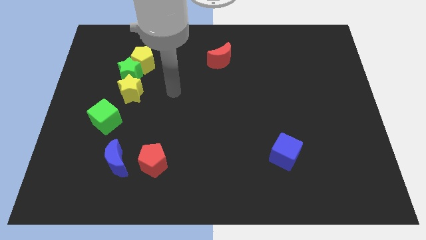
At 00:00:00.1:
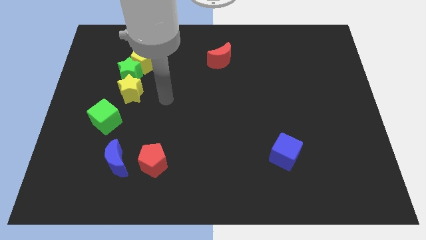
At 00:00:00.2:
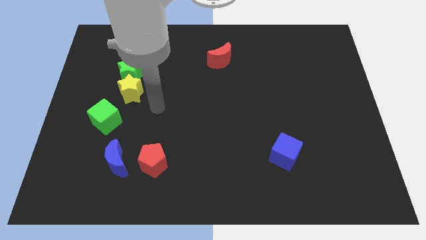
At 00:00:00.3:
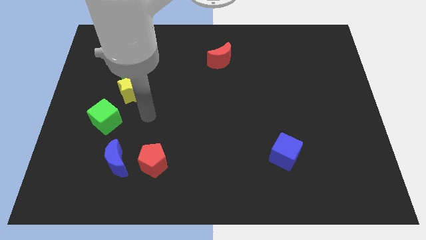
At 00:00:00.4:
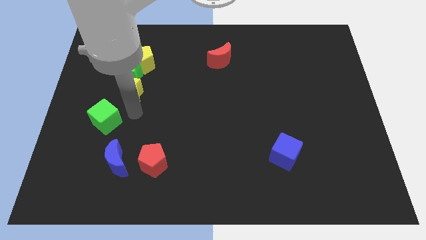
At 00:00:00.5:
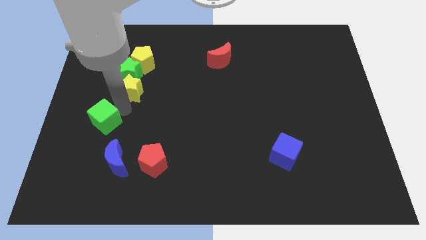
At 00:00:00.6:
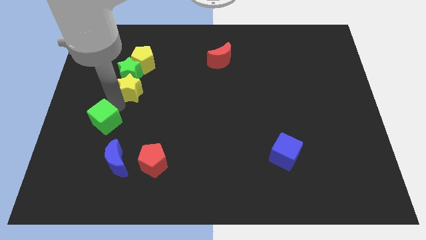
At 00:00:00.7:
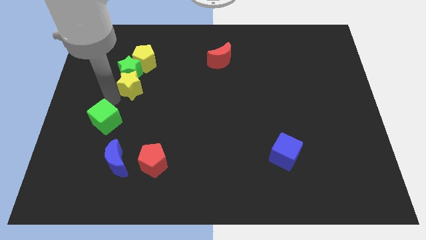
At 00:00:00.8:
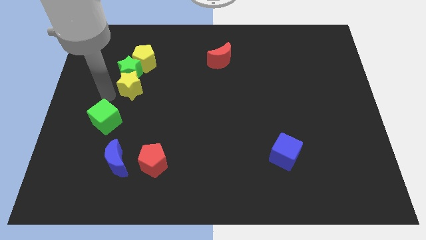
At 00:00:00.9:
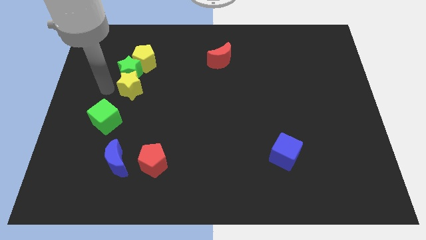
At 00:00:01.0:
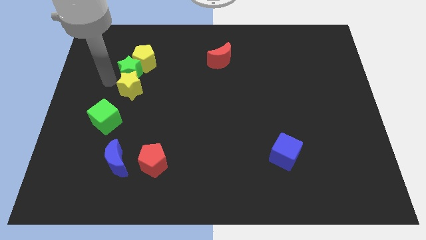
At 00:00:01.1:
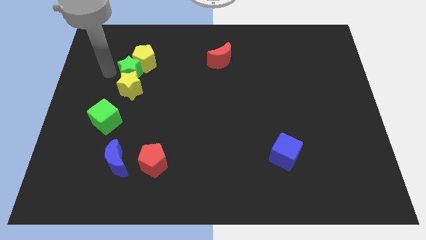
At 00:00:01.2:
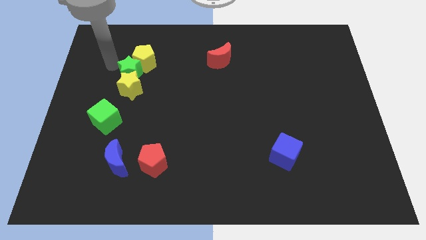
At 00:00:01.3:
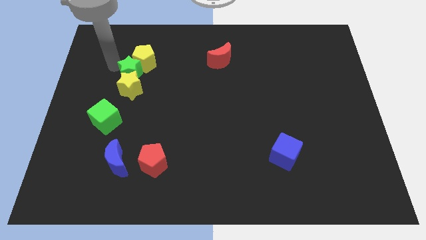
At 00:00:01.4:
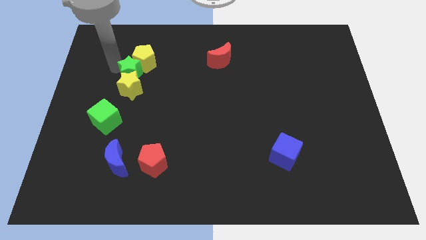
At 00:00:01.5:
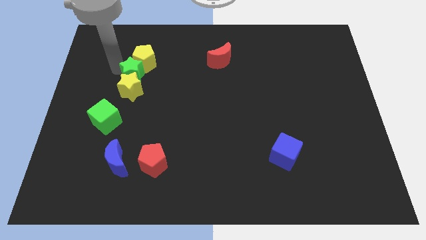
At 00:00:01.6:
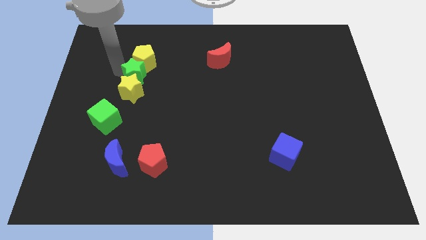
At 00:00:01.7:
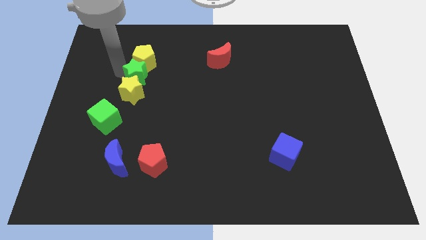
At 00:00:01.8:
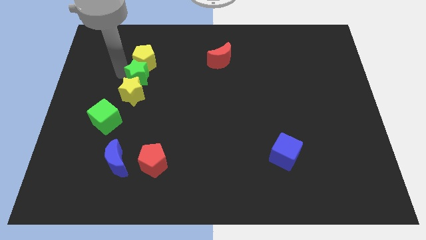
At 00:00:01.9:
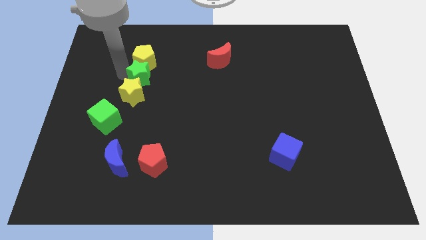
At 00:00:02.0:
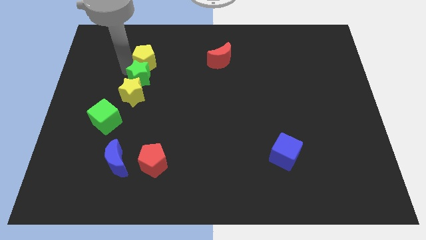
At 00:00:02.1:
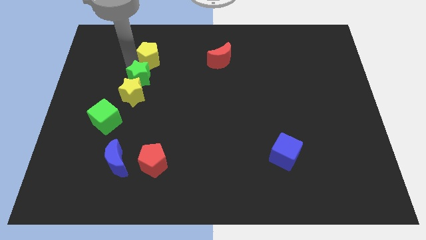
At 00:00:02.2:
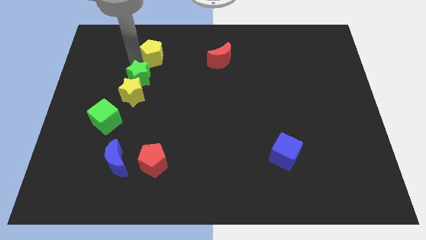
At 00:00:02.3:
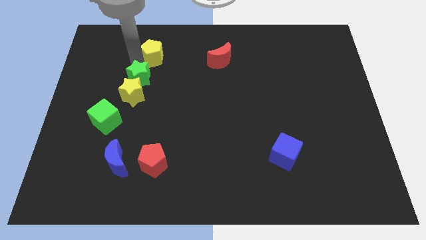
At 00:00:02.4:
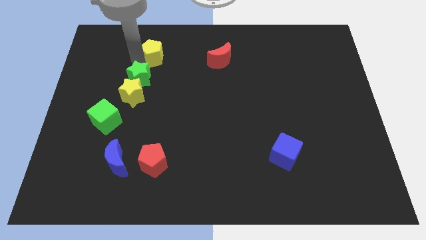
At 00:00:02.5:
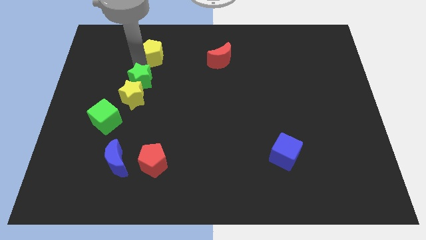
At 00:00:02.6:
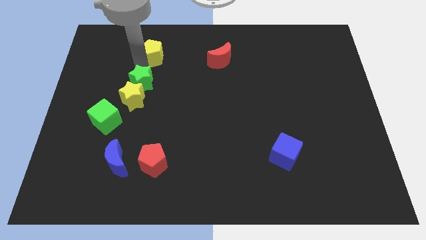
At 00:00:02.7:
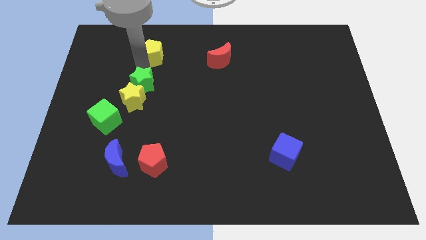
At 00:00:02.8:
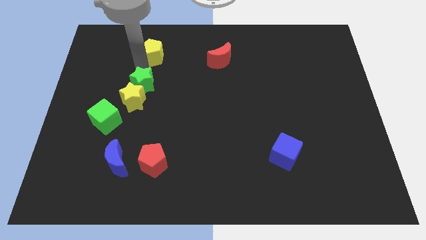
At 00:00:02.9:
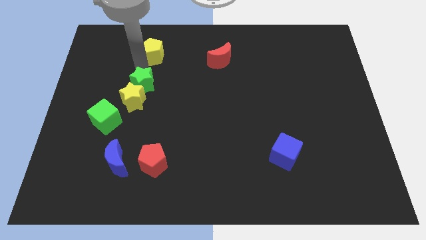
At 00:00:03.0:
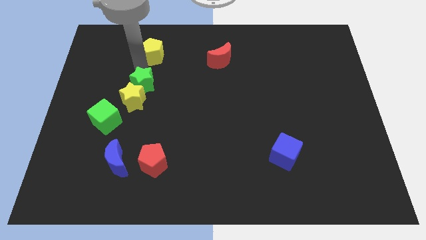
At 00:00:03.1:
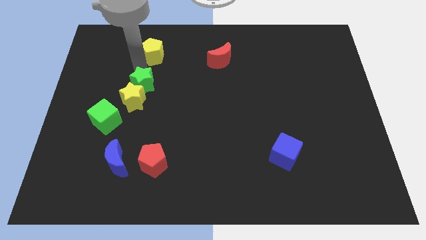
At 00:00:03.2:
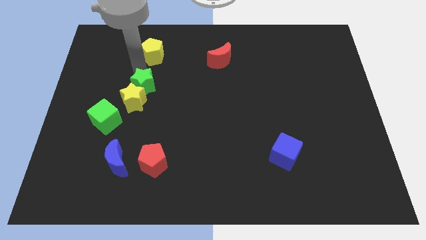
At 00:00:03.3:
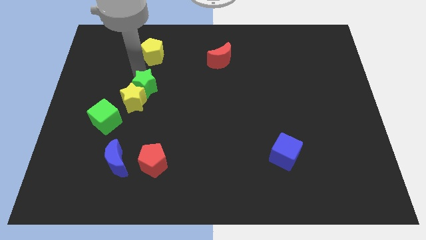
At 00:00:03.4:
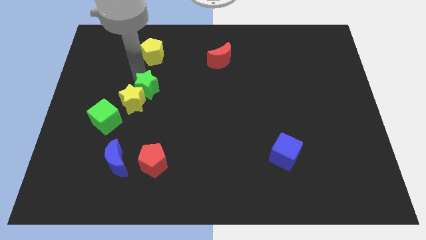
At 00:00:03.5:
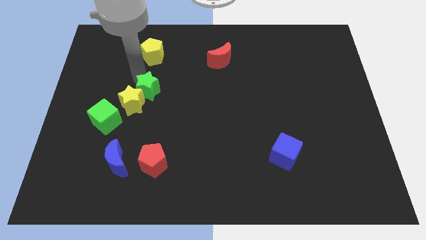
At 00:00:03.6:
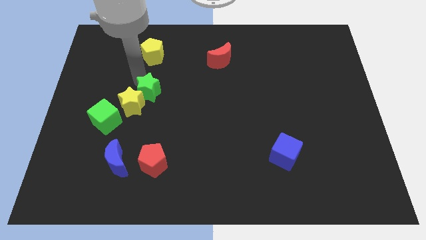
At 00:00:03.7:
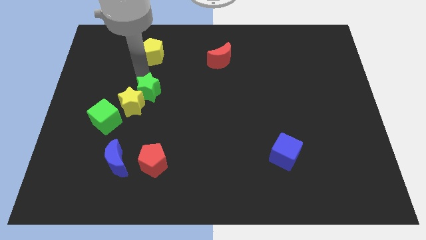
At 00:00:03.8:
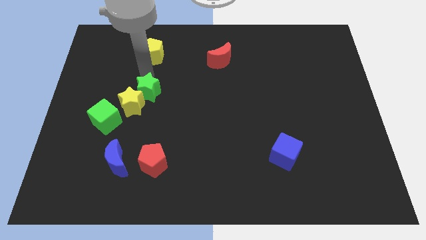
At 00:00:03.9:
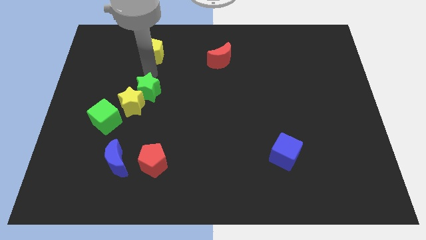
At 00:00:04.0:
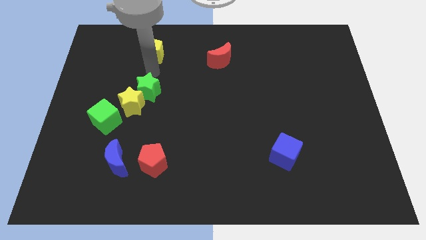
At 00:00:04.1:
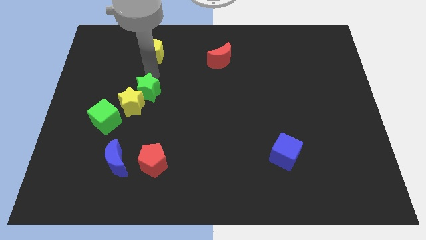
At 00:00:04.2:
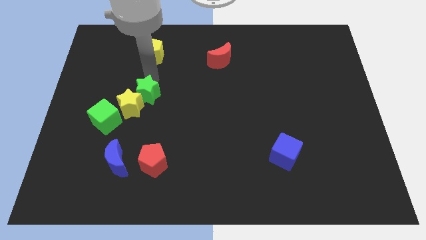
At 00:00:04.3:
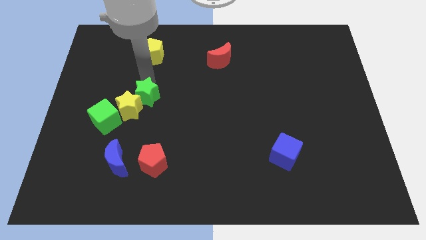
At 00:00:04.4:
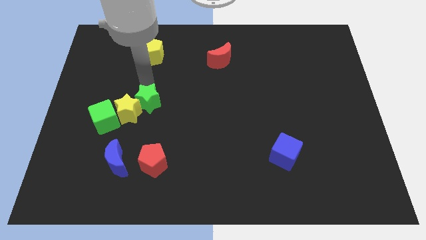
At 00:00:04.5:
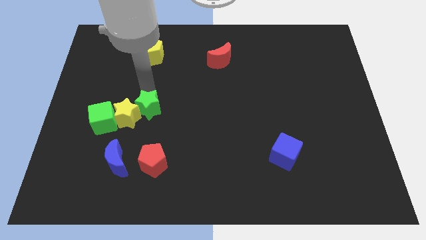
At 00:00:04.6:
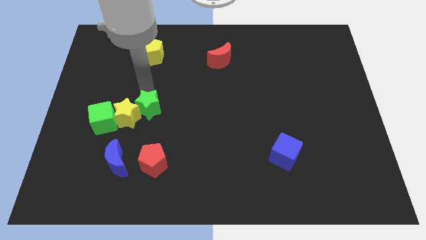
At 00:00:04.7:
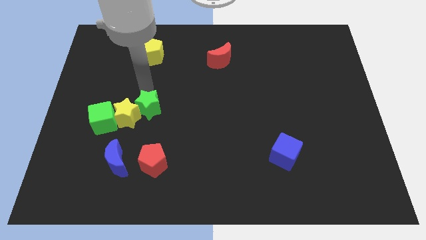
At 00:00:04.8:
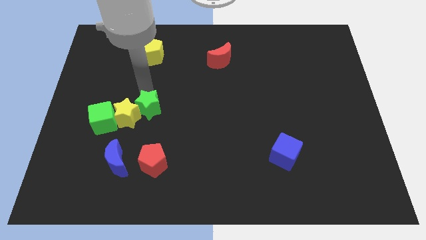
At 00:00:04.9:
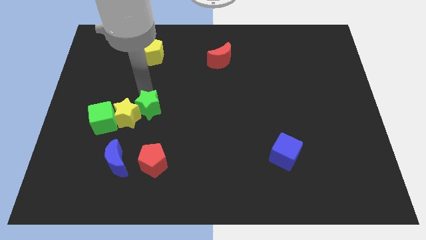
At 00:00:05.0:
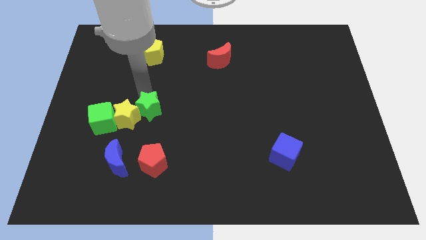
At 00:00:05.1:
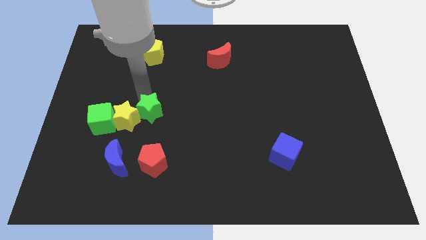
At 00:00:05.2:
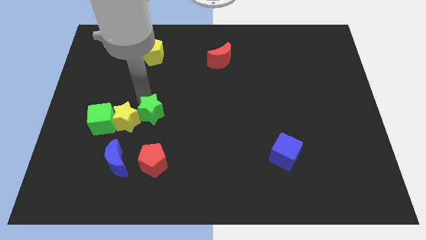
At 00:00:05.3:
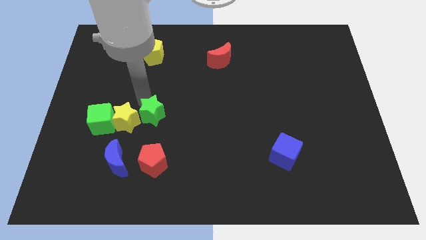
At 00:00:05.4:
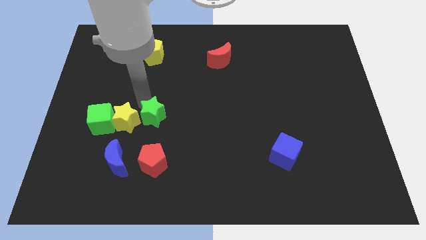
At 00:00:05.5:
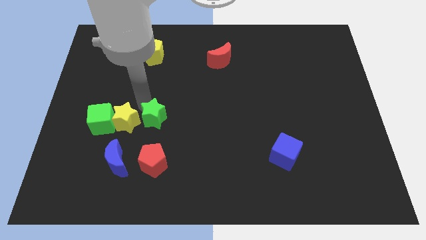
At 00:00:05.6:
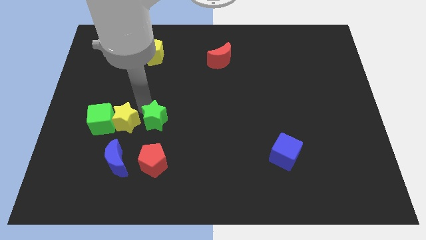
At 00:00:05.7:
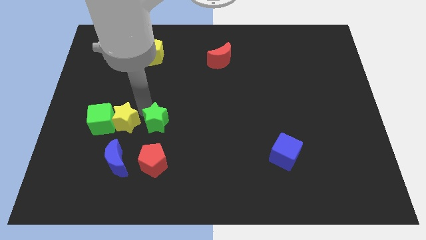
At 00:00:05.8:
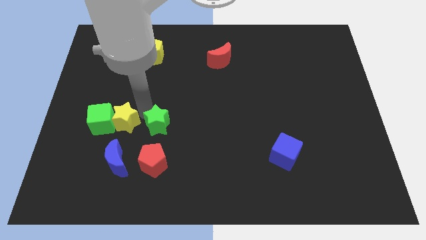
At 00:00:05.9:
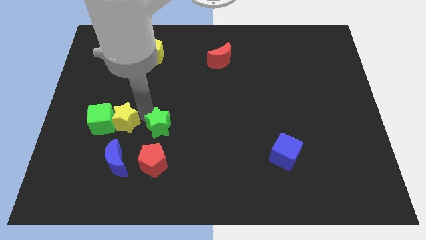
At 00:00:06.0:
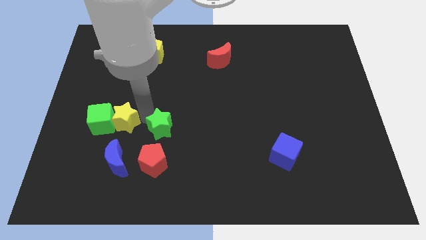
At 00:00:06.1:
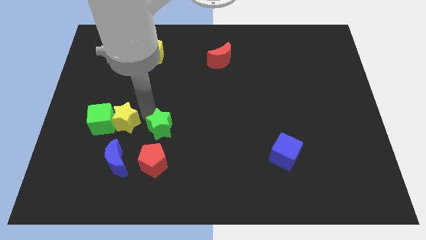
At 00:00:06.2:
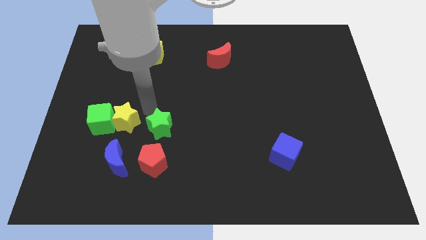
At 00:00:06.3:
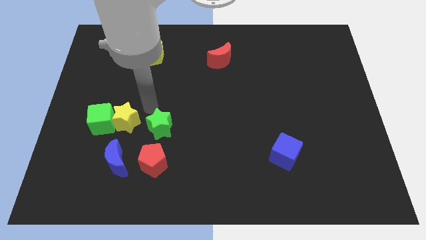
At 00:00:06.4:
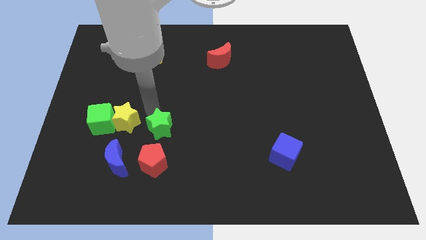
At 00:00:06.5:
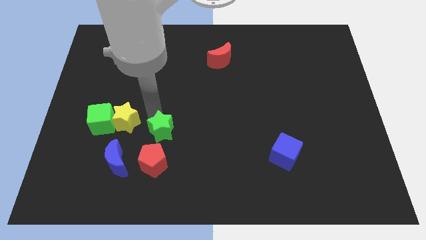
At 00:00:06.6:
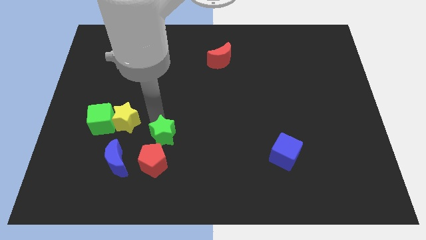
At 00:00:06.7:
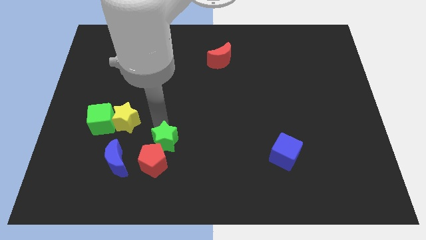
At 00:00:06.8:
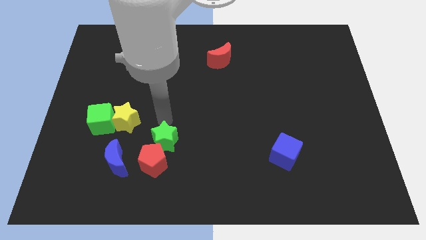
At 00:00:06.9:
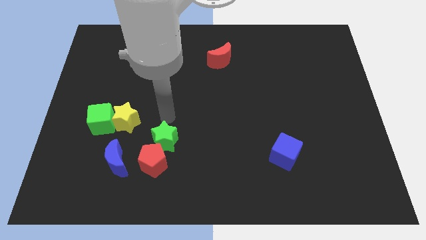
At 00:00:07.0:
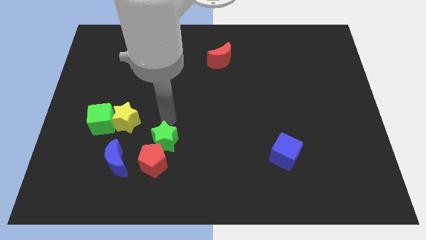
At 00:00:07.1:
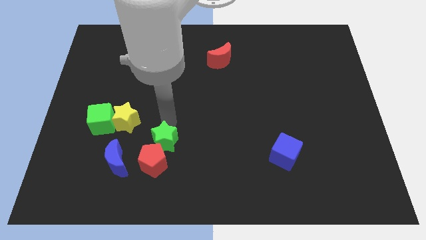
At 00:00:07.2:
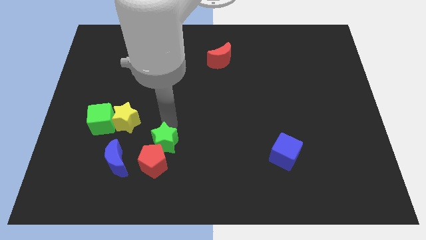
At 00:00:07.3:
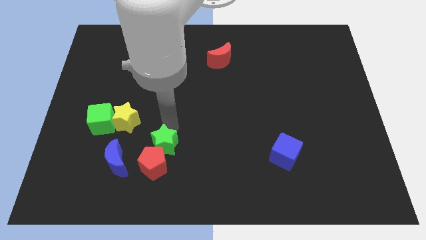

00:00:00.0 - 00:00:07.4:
put the green star to the right of the blue moon
